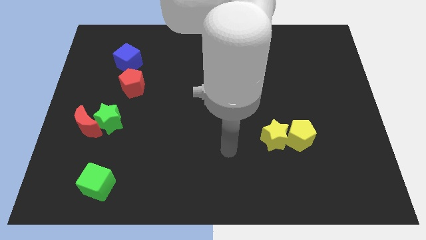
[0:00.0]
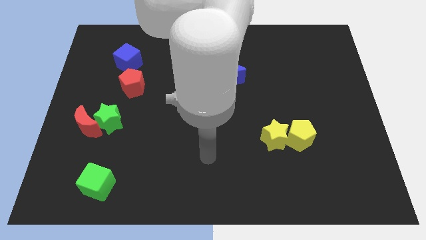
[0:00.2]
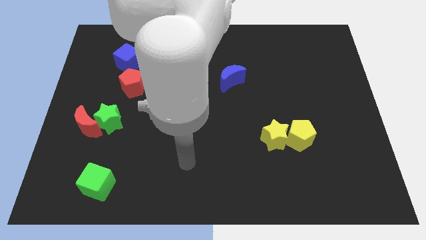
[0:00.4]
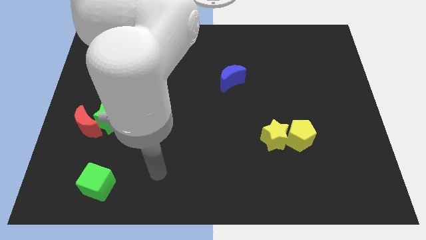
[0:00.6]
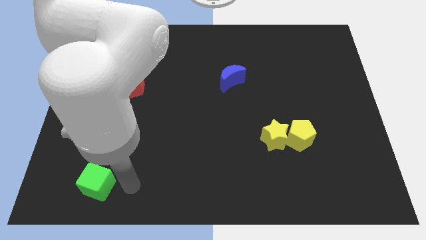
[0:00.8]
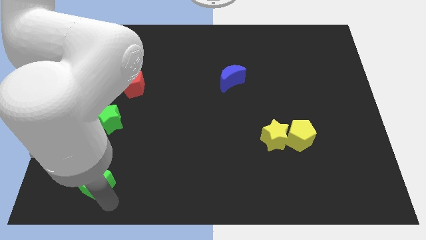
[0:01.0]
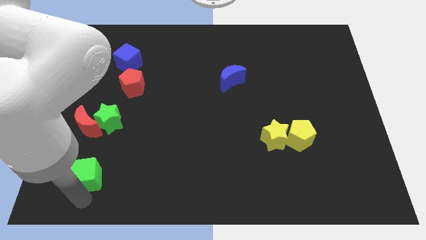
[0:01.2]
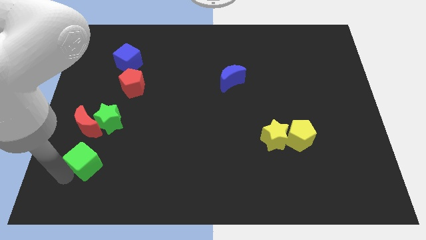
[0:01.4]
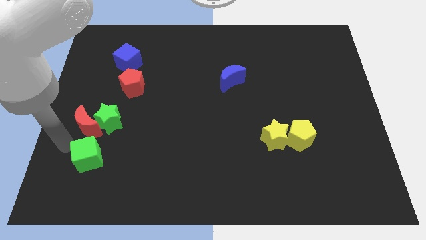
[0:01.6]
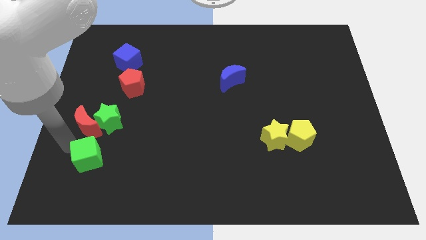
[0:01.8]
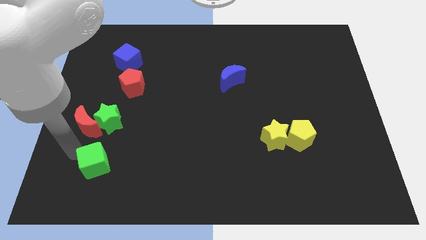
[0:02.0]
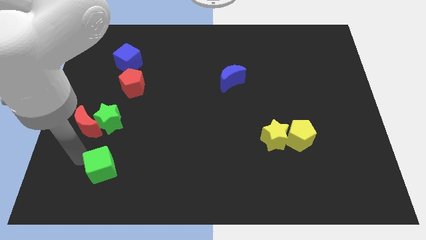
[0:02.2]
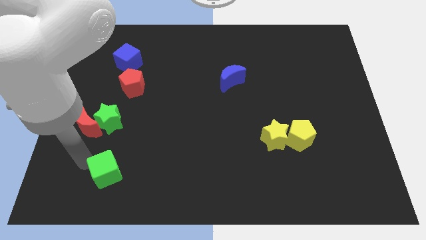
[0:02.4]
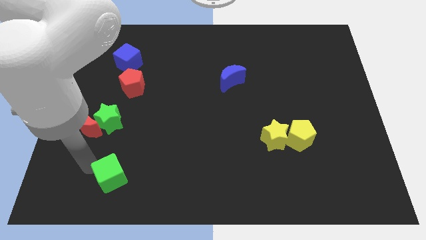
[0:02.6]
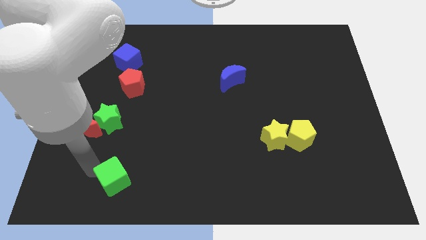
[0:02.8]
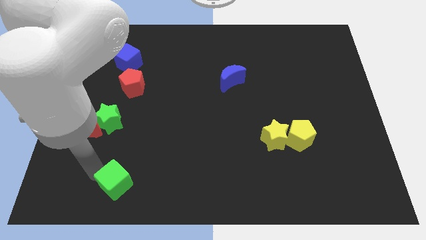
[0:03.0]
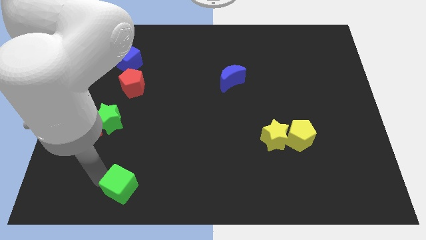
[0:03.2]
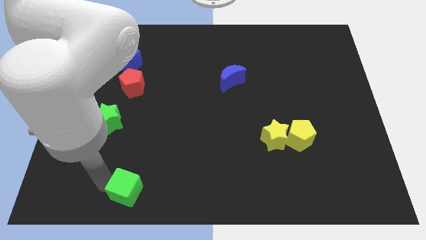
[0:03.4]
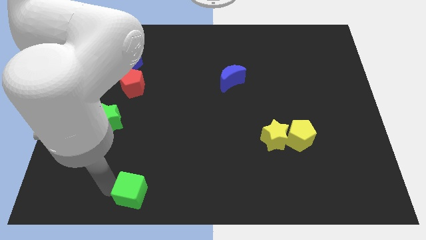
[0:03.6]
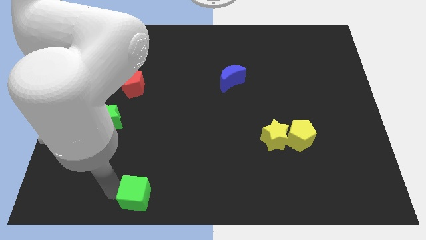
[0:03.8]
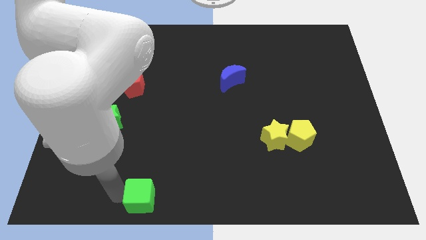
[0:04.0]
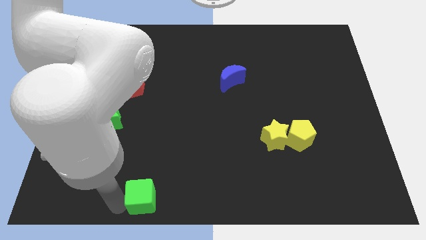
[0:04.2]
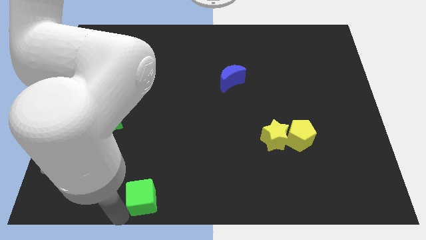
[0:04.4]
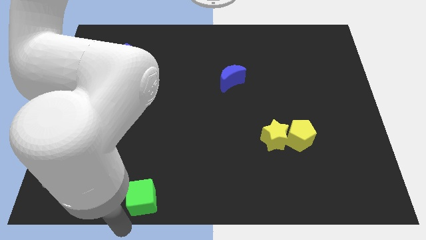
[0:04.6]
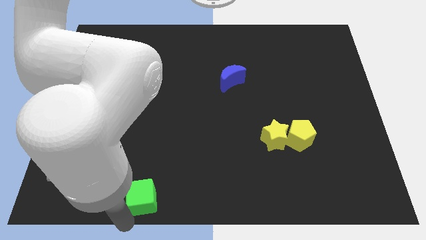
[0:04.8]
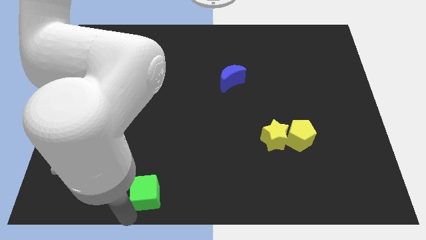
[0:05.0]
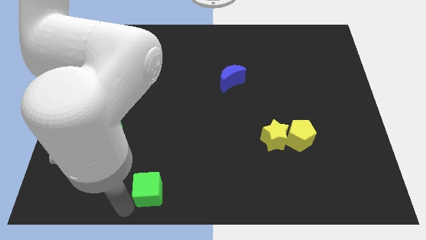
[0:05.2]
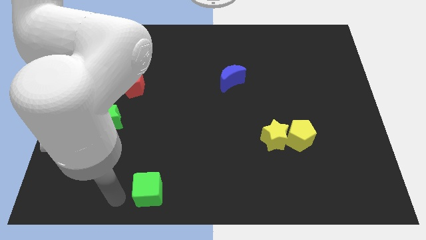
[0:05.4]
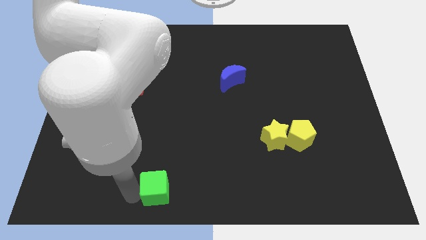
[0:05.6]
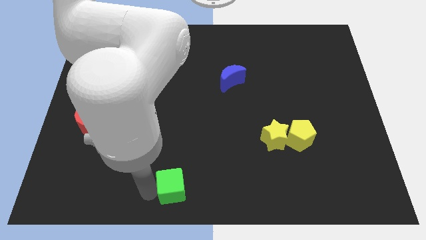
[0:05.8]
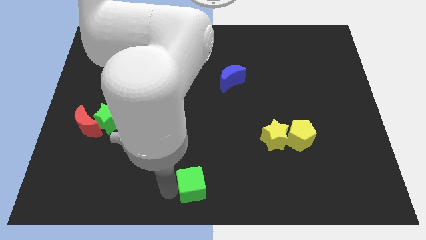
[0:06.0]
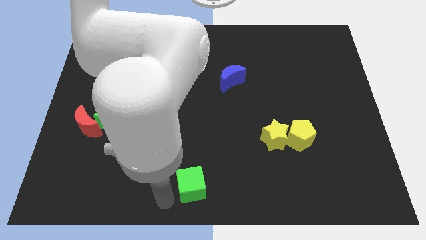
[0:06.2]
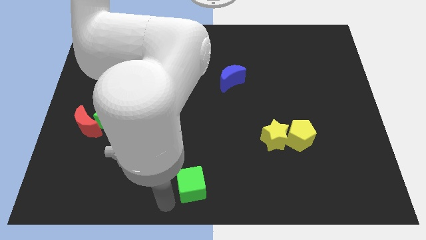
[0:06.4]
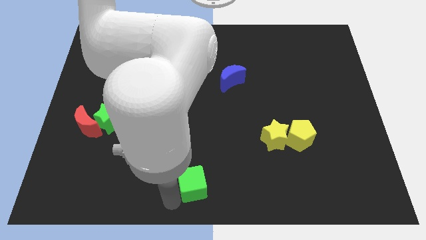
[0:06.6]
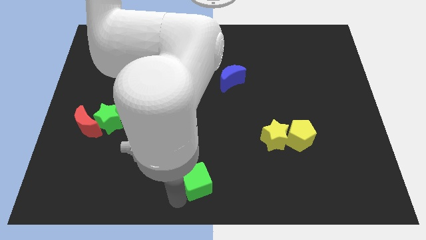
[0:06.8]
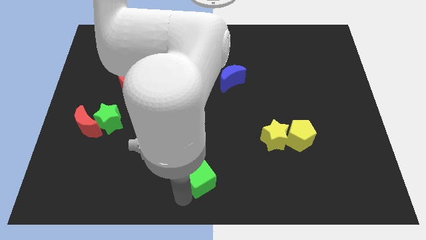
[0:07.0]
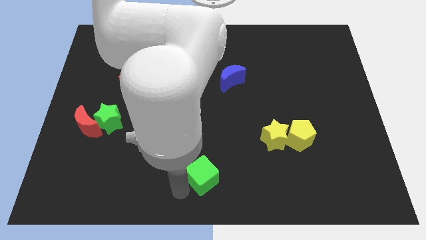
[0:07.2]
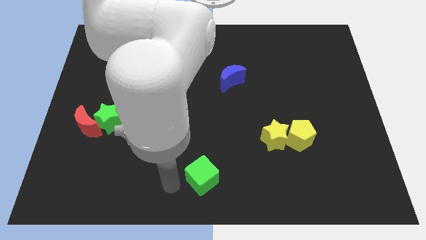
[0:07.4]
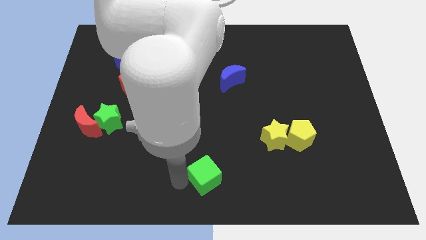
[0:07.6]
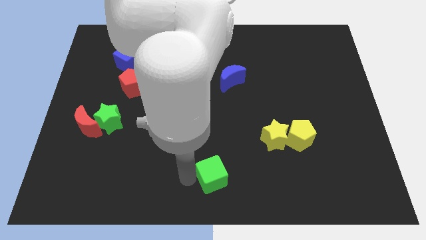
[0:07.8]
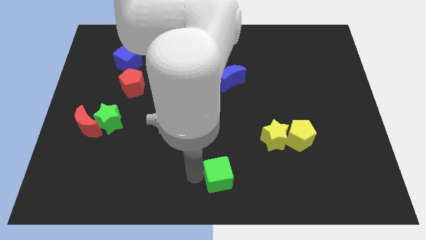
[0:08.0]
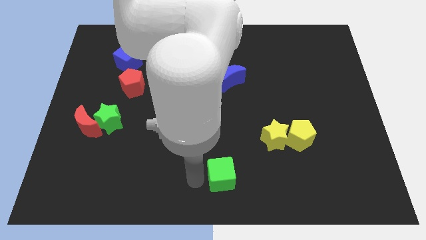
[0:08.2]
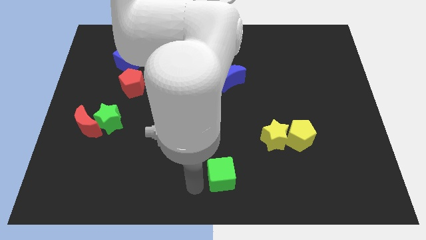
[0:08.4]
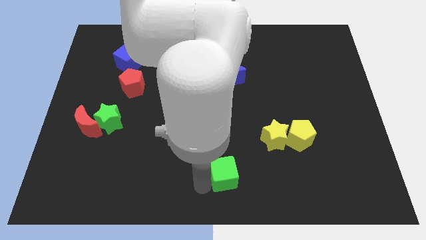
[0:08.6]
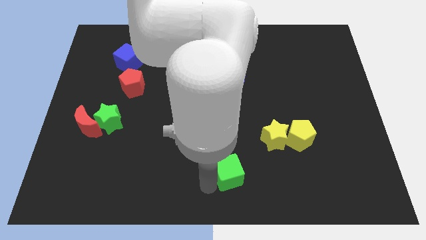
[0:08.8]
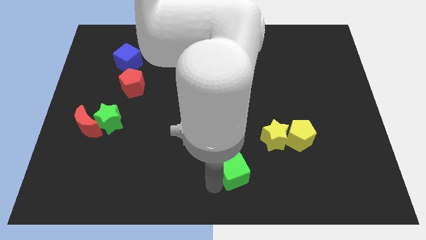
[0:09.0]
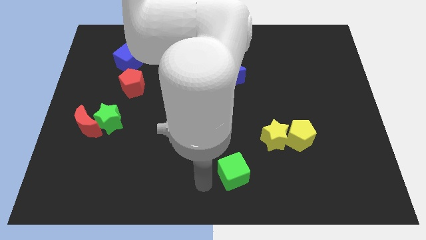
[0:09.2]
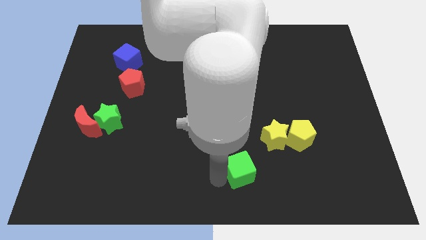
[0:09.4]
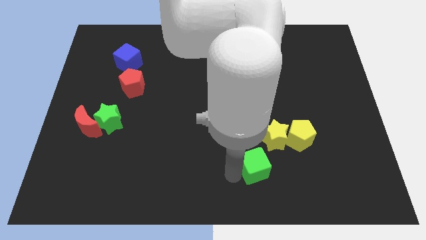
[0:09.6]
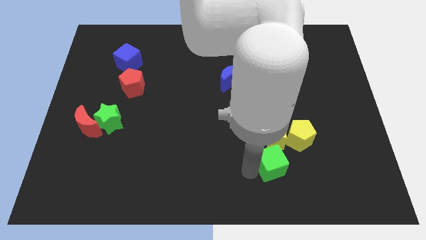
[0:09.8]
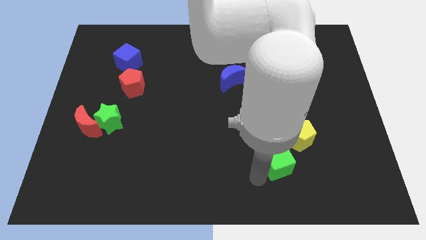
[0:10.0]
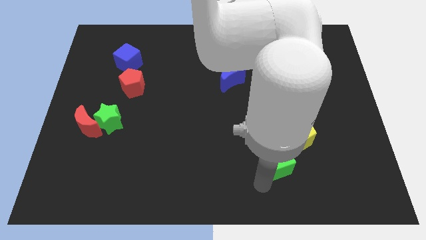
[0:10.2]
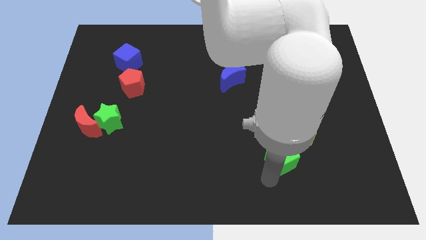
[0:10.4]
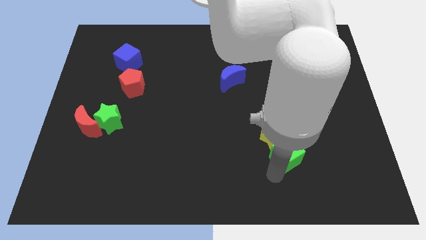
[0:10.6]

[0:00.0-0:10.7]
push the green cube towards the yellow pentagon

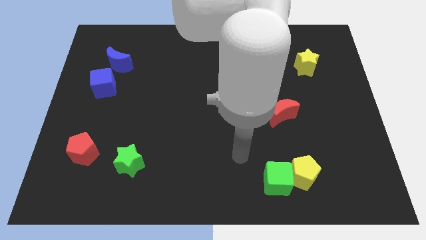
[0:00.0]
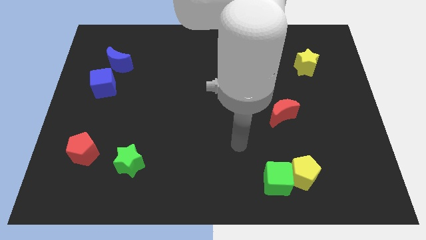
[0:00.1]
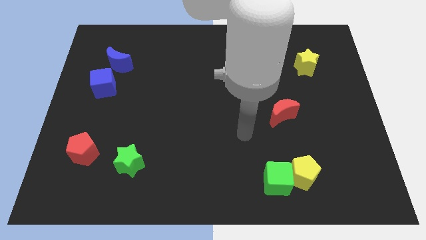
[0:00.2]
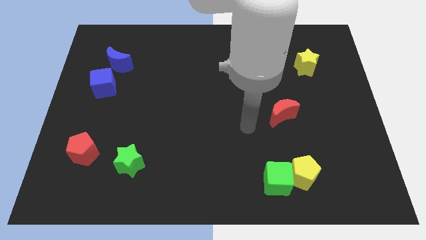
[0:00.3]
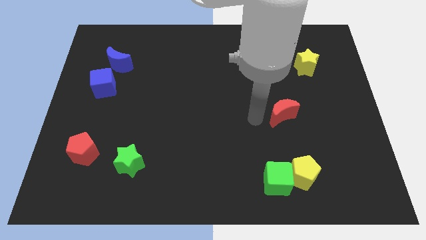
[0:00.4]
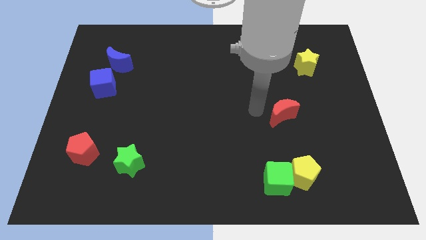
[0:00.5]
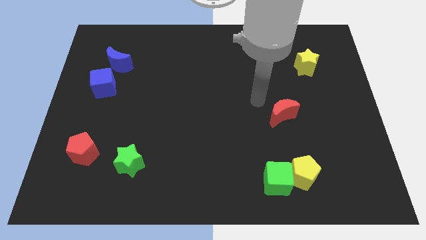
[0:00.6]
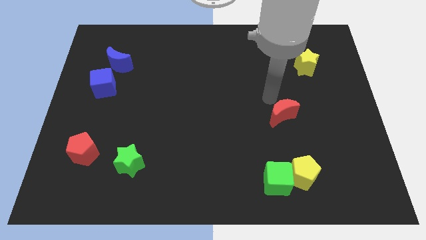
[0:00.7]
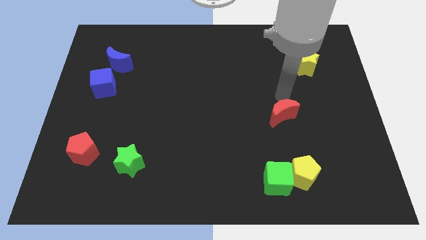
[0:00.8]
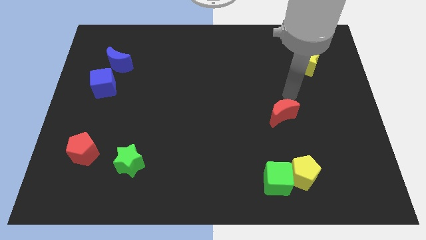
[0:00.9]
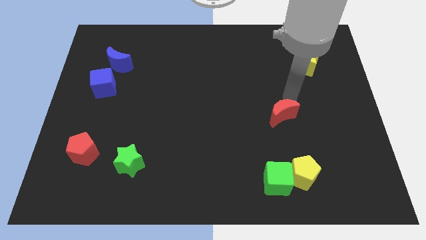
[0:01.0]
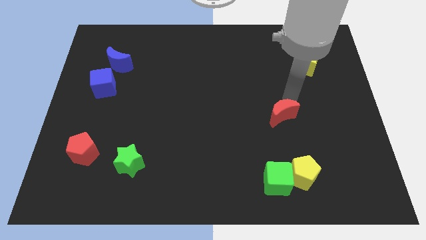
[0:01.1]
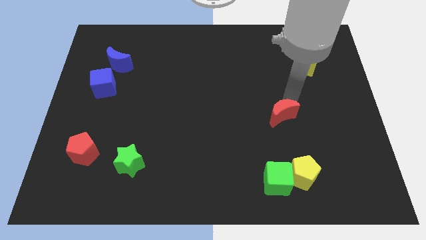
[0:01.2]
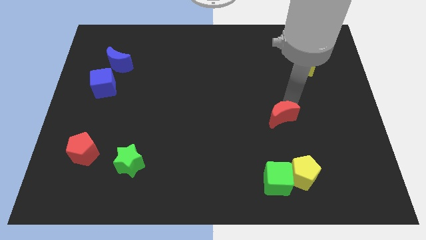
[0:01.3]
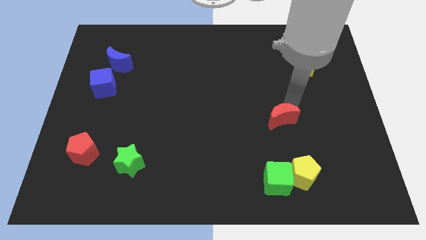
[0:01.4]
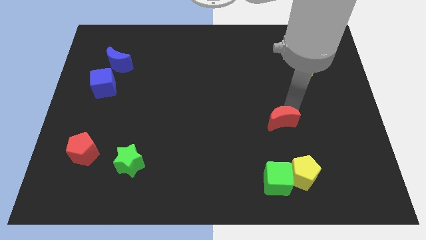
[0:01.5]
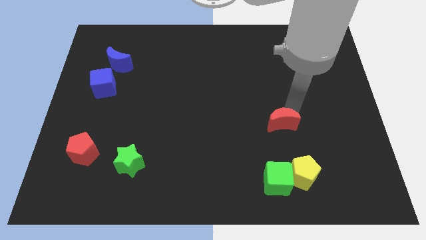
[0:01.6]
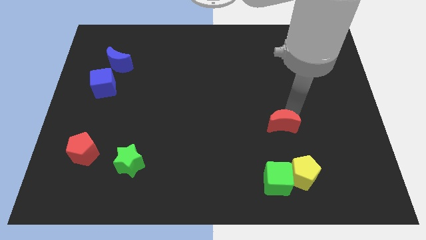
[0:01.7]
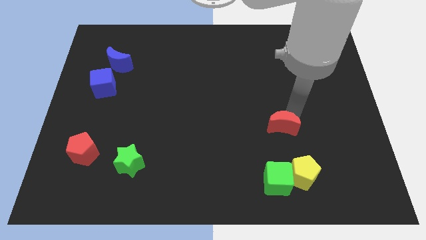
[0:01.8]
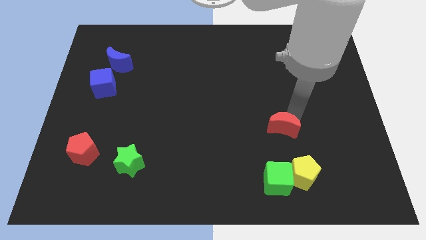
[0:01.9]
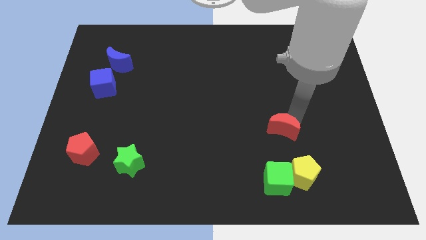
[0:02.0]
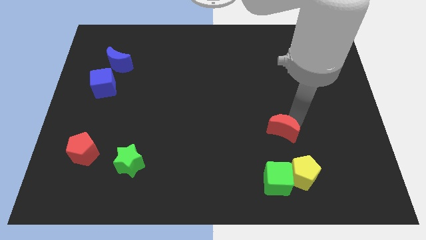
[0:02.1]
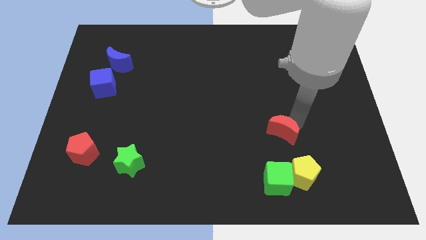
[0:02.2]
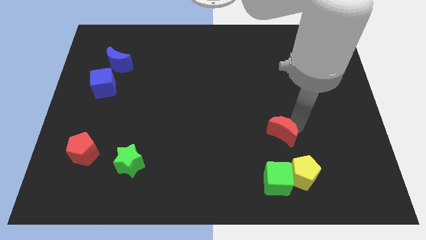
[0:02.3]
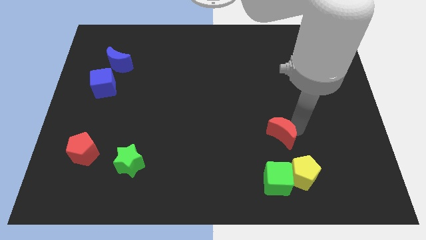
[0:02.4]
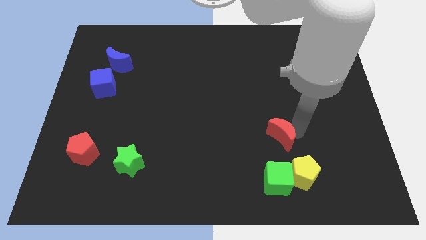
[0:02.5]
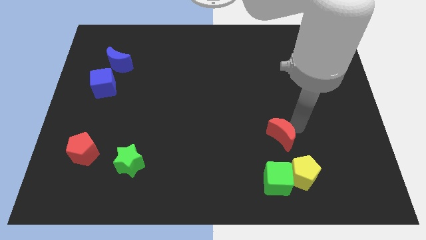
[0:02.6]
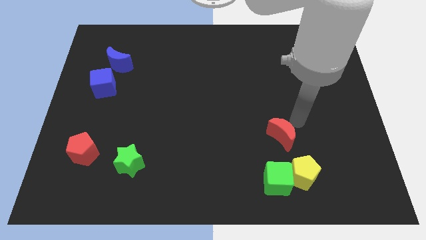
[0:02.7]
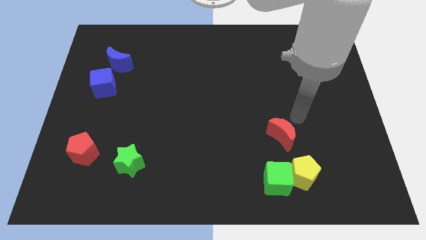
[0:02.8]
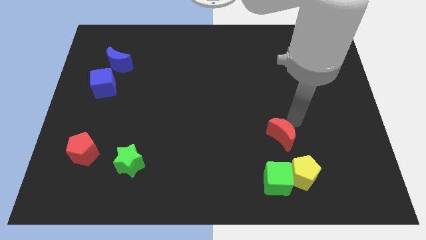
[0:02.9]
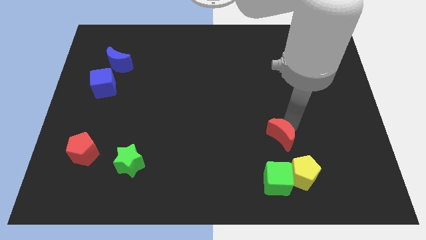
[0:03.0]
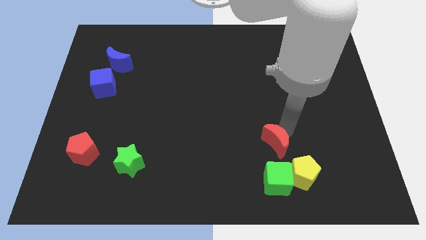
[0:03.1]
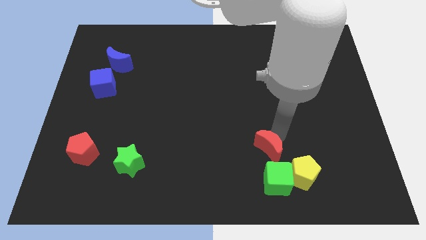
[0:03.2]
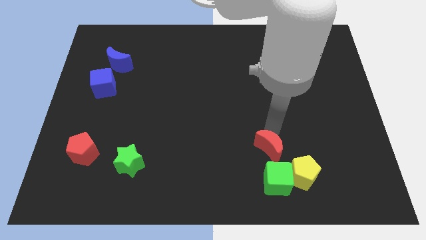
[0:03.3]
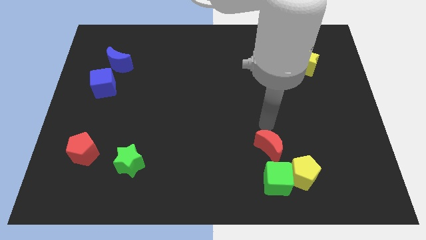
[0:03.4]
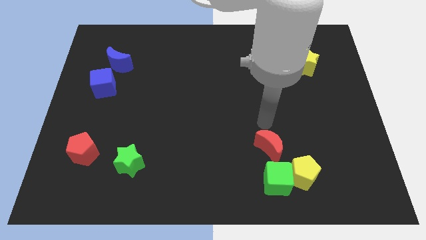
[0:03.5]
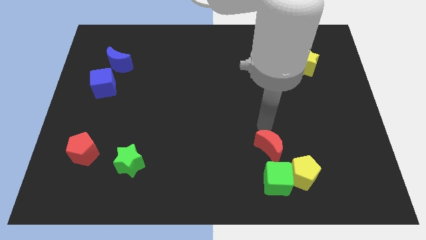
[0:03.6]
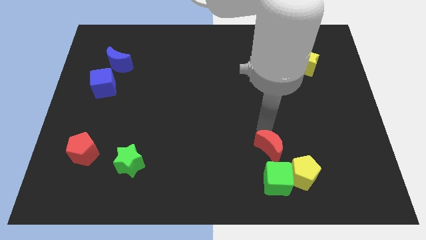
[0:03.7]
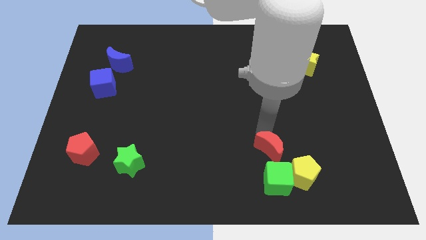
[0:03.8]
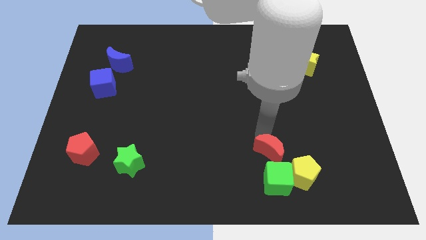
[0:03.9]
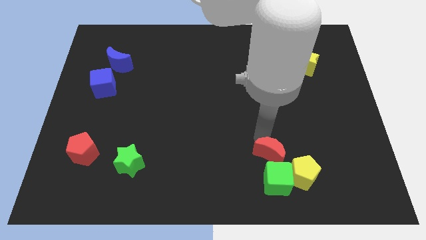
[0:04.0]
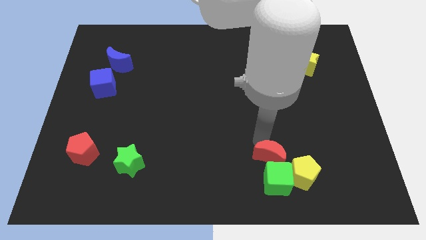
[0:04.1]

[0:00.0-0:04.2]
slide the red moon to the green cube
